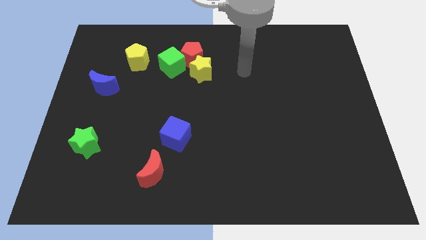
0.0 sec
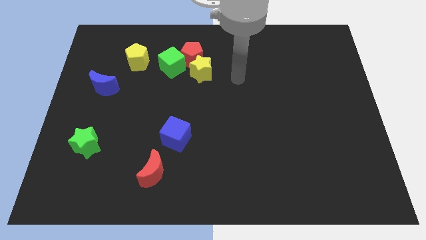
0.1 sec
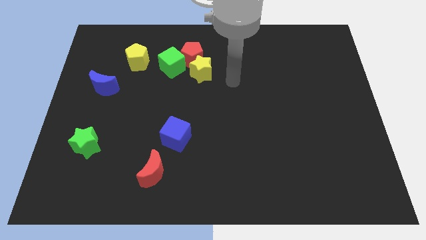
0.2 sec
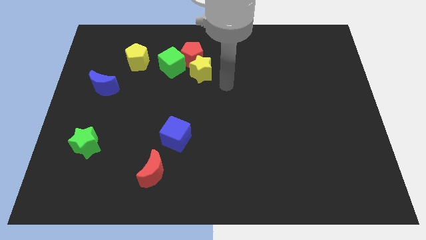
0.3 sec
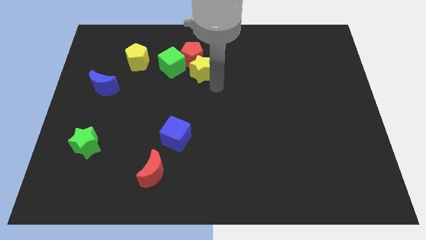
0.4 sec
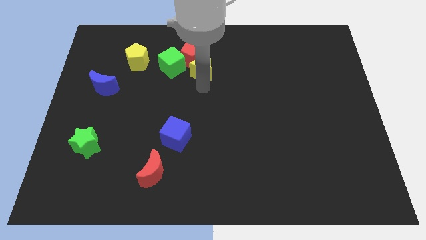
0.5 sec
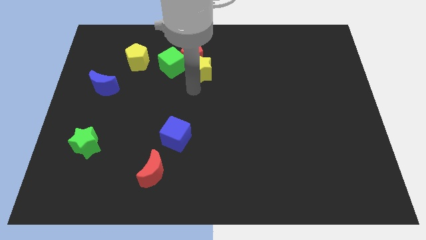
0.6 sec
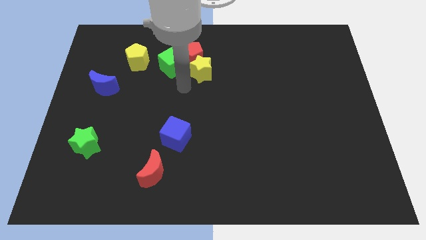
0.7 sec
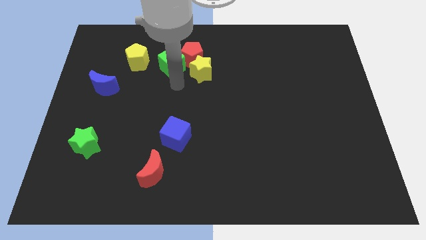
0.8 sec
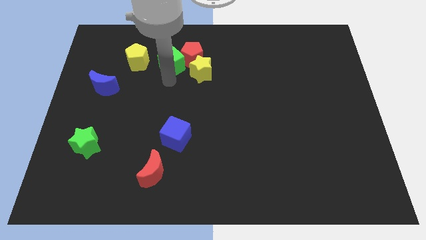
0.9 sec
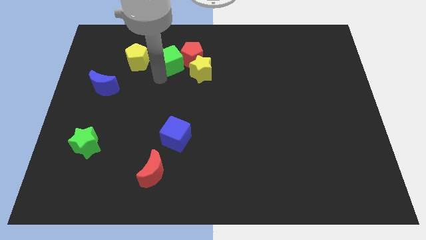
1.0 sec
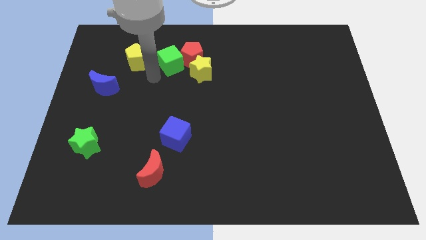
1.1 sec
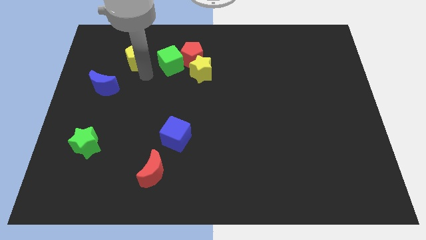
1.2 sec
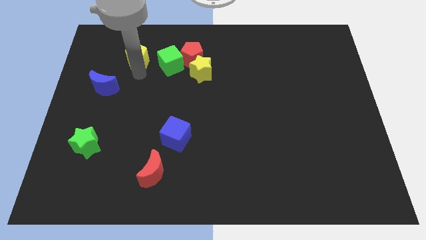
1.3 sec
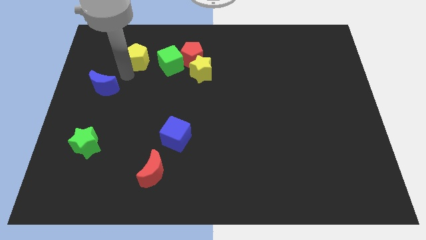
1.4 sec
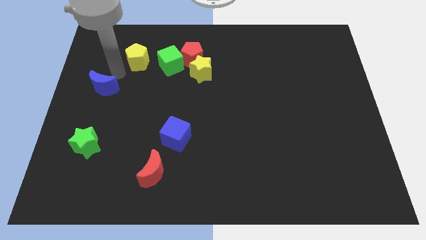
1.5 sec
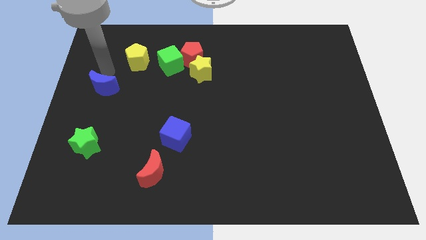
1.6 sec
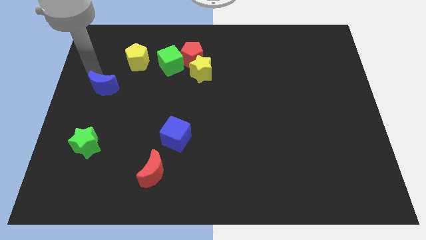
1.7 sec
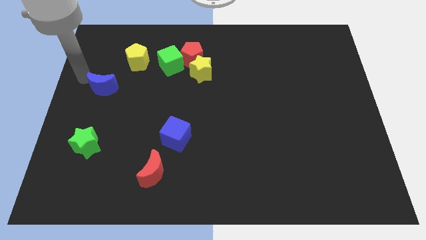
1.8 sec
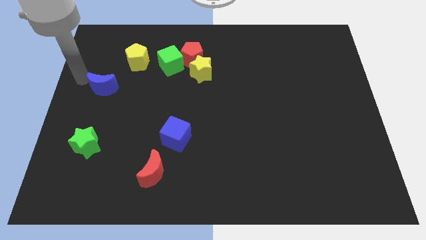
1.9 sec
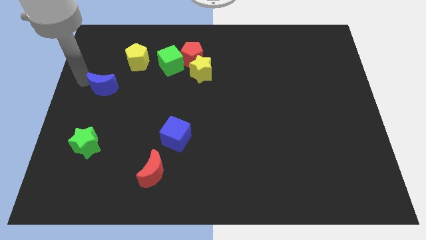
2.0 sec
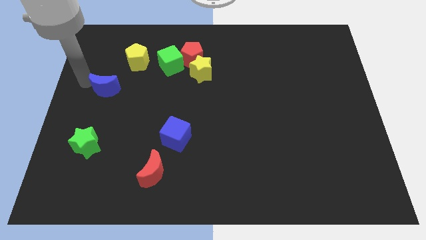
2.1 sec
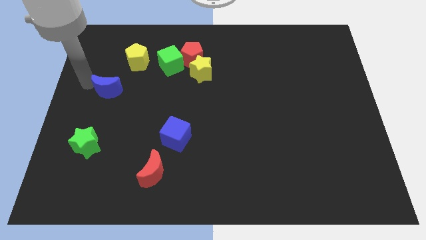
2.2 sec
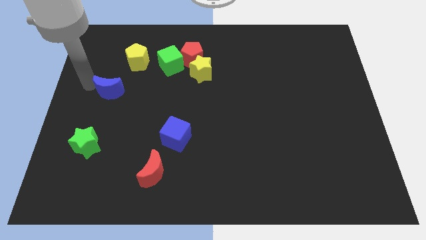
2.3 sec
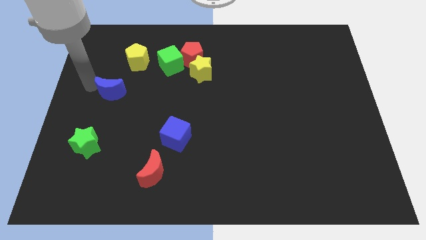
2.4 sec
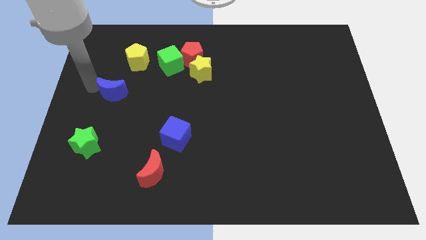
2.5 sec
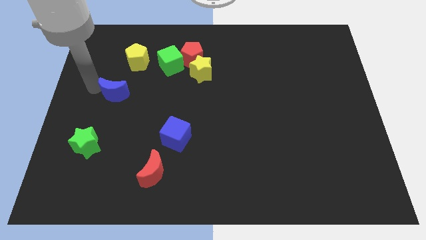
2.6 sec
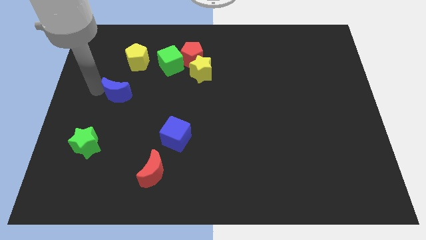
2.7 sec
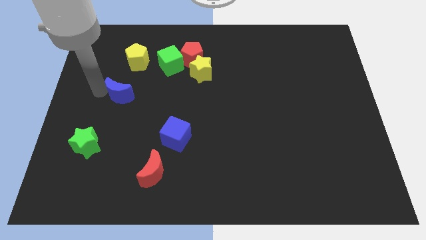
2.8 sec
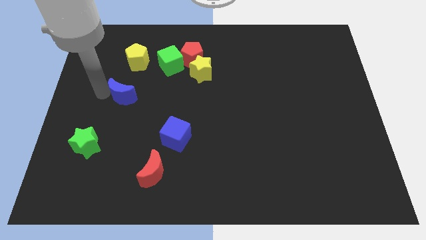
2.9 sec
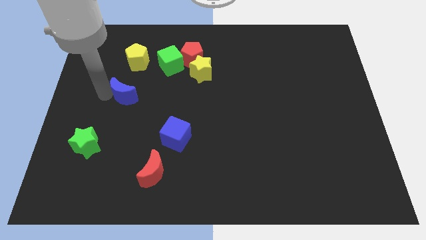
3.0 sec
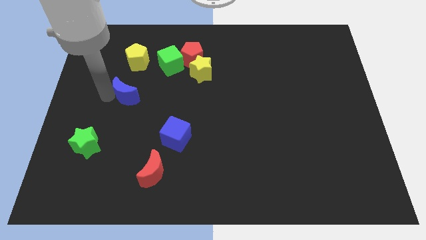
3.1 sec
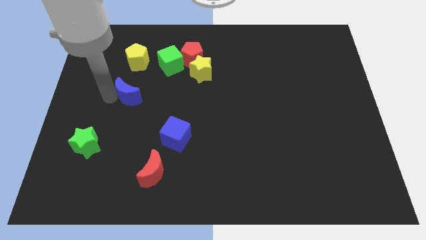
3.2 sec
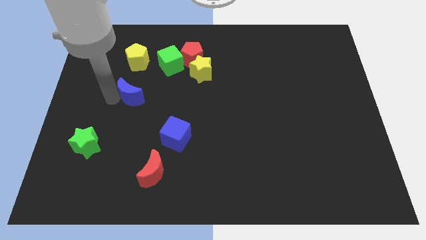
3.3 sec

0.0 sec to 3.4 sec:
push the blue moon somewhat downwards and to the right diagonally

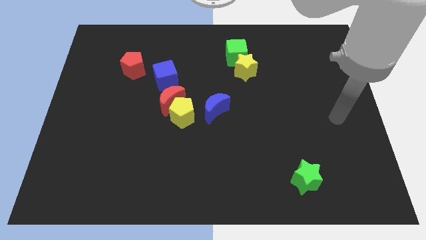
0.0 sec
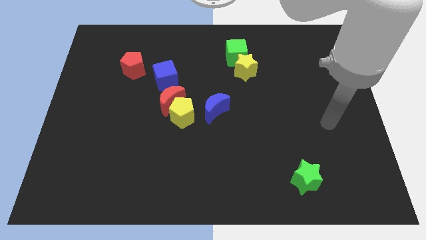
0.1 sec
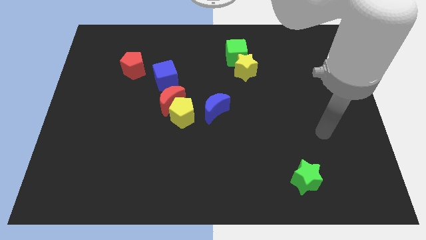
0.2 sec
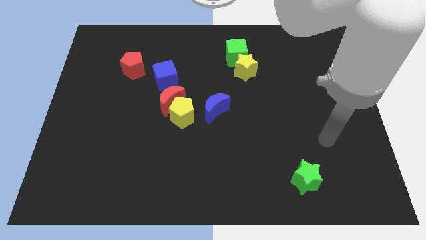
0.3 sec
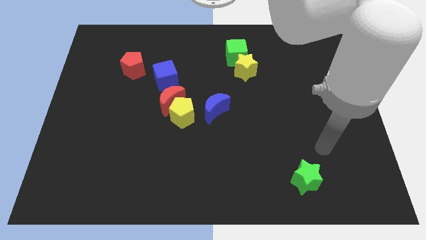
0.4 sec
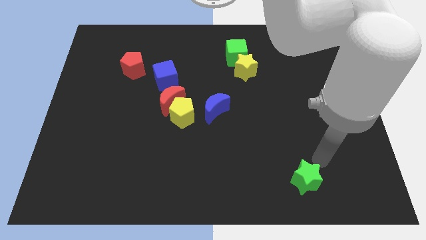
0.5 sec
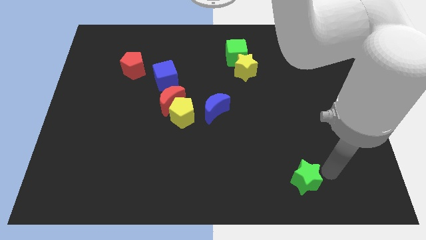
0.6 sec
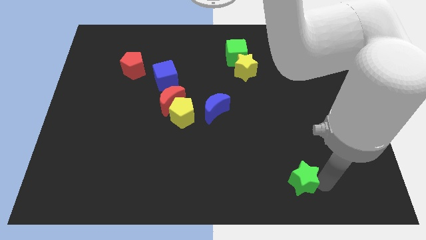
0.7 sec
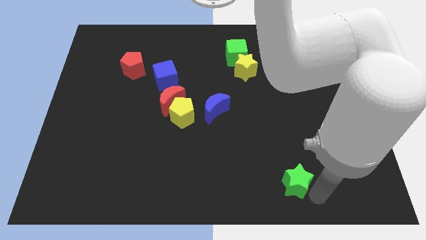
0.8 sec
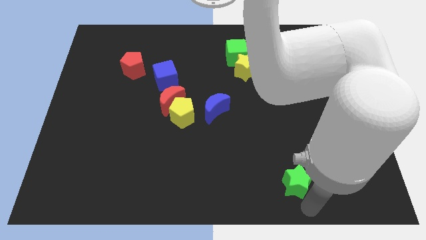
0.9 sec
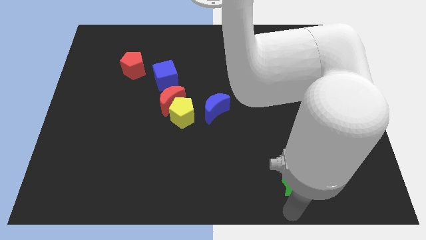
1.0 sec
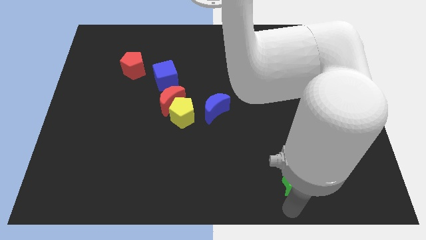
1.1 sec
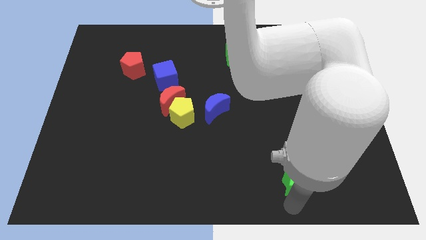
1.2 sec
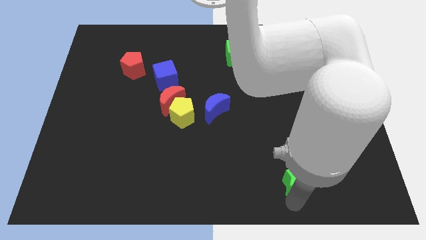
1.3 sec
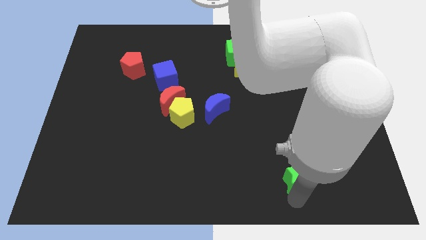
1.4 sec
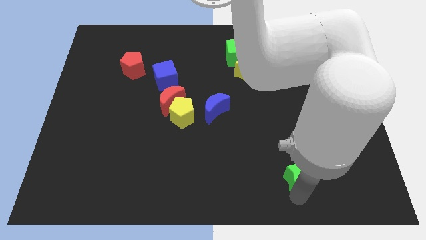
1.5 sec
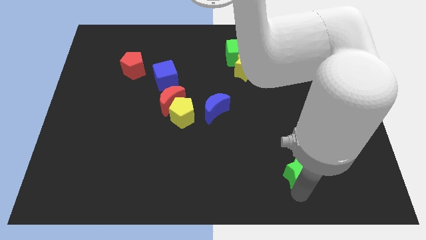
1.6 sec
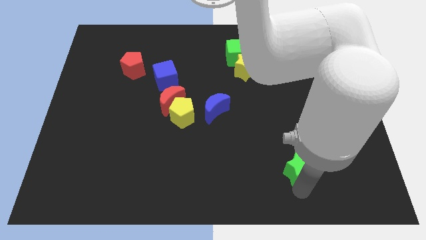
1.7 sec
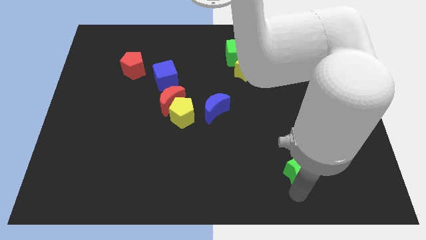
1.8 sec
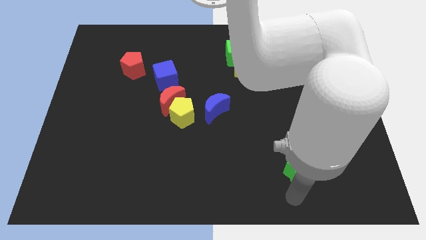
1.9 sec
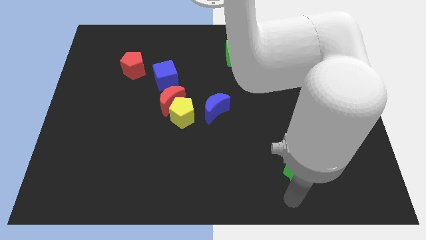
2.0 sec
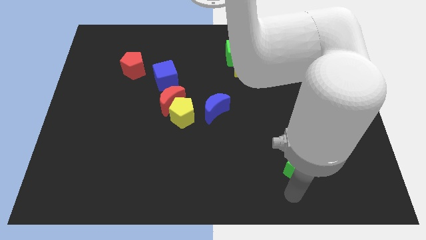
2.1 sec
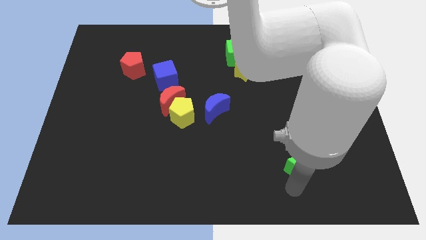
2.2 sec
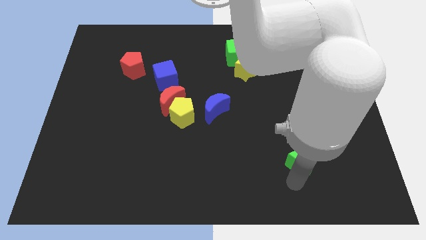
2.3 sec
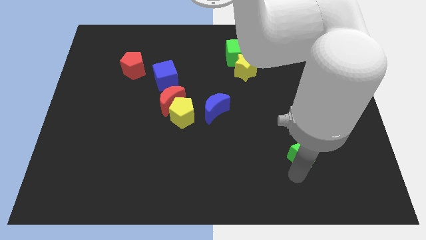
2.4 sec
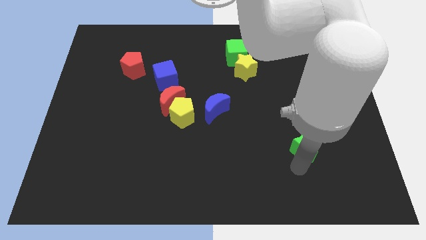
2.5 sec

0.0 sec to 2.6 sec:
slightly move the green star up

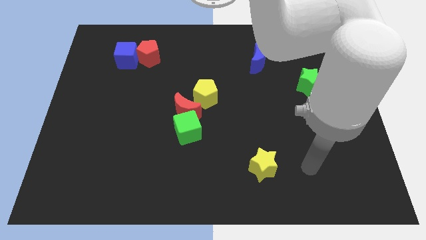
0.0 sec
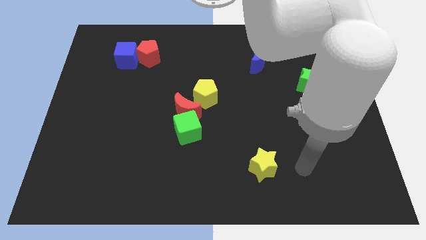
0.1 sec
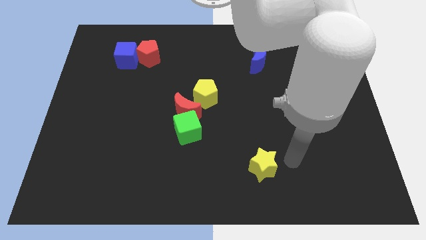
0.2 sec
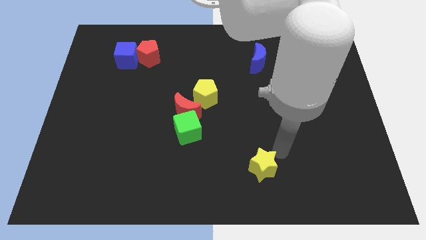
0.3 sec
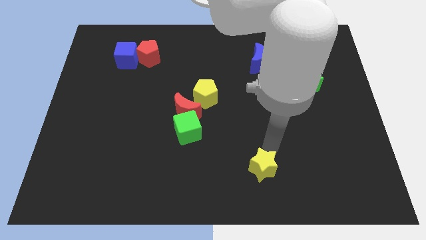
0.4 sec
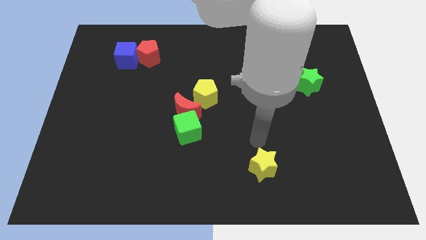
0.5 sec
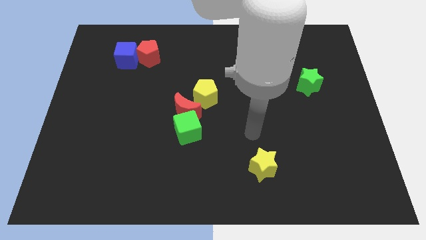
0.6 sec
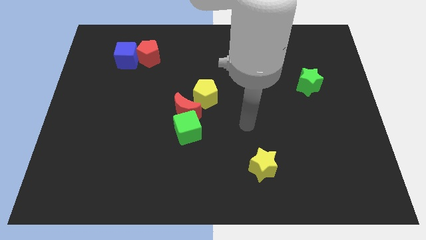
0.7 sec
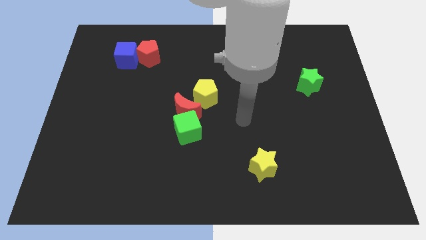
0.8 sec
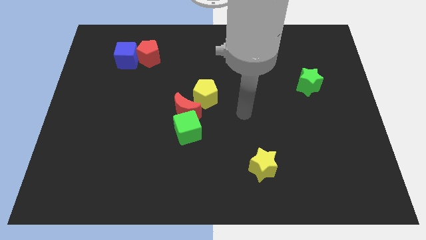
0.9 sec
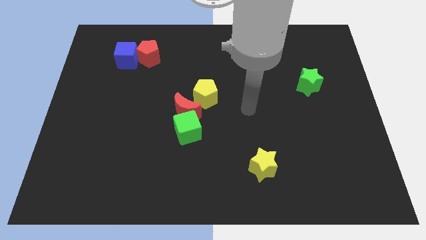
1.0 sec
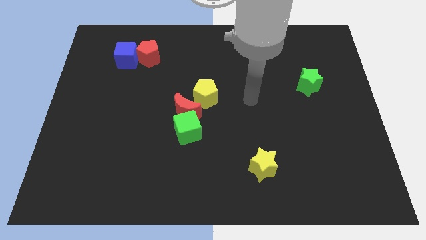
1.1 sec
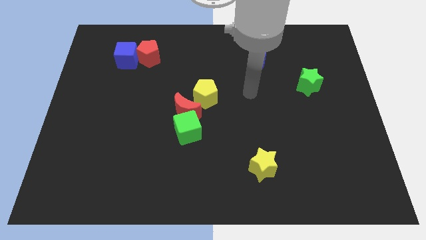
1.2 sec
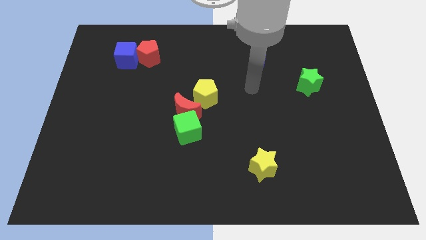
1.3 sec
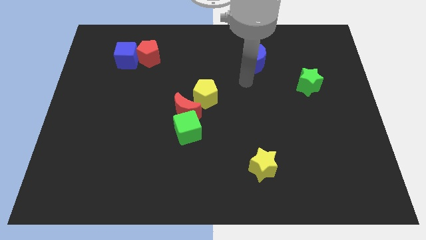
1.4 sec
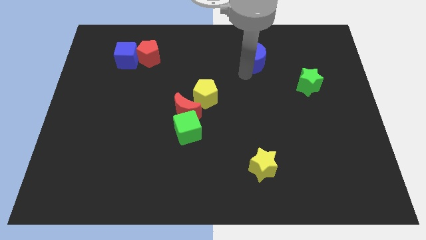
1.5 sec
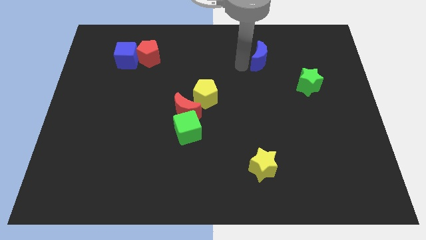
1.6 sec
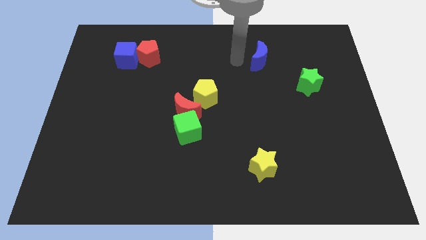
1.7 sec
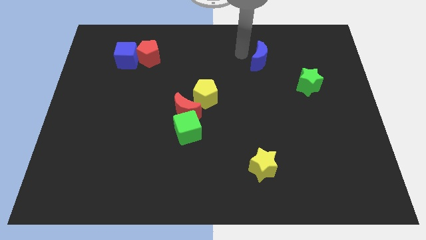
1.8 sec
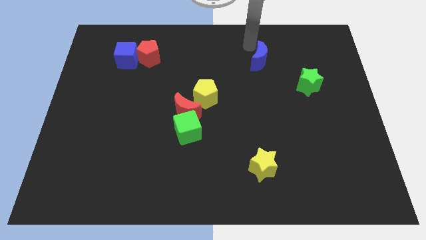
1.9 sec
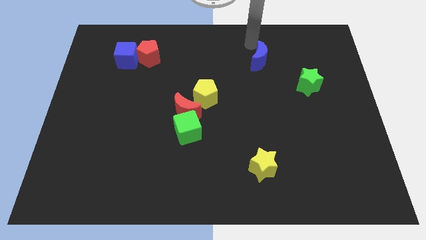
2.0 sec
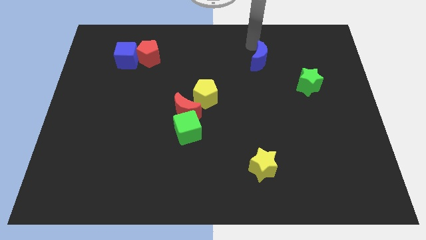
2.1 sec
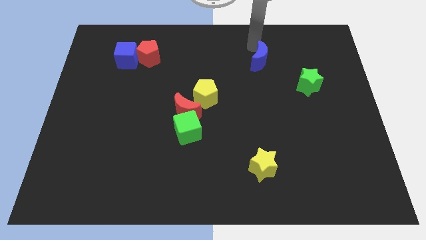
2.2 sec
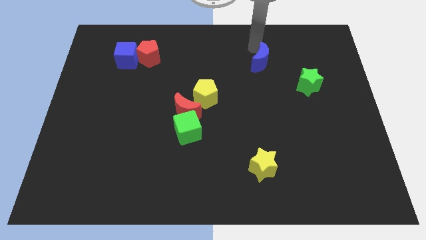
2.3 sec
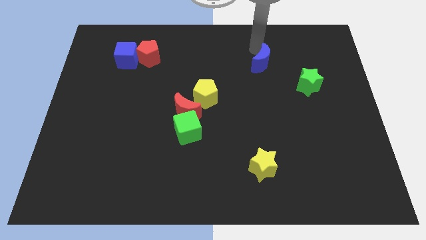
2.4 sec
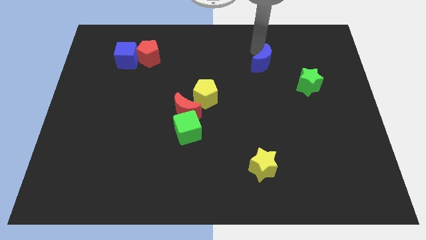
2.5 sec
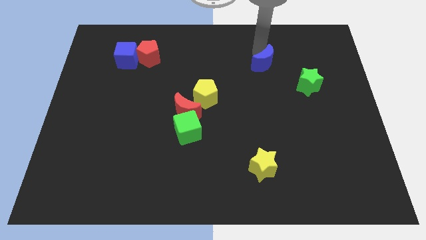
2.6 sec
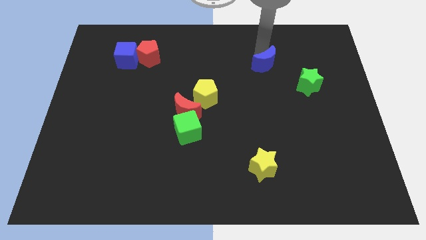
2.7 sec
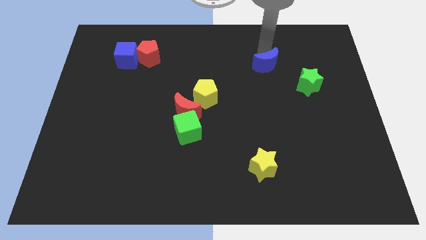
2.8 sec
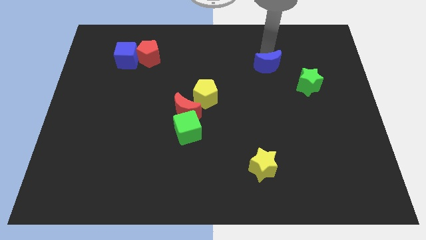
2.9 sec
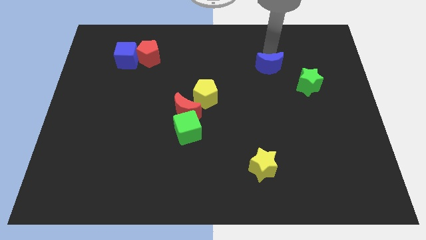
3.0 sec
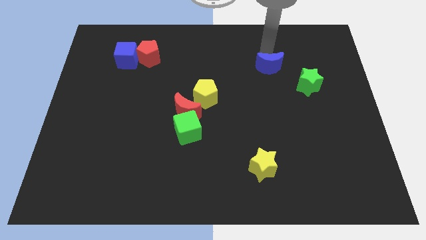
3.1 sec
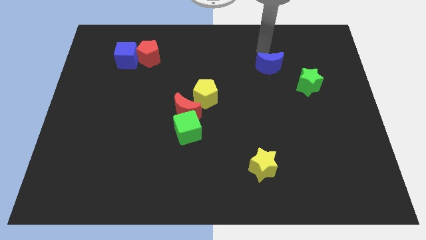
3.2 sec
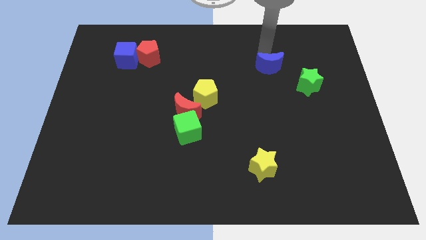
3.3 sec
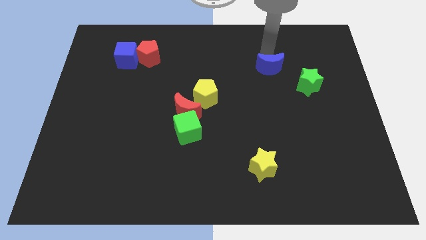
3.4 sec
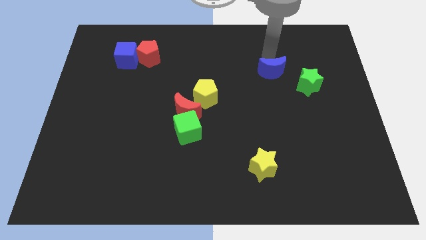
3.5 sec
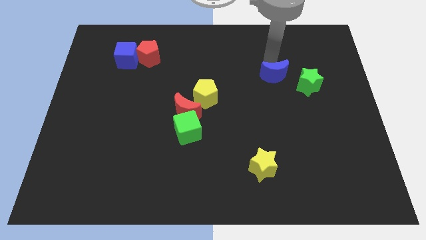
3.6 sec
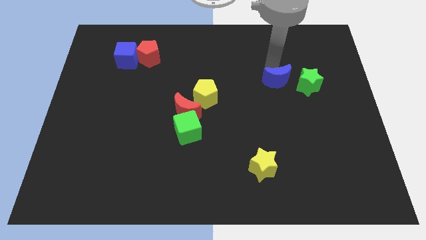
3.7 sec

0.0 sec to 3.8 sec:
move the blue moon a bit diagonally downwards and to the right
